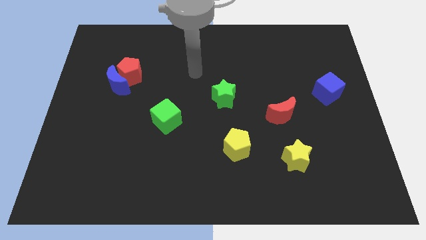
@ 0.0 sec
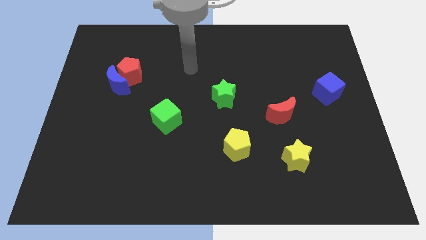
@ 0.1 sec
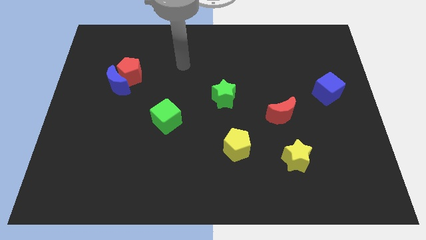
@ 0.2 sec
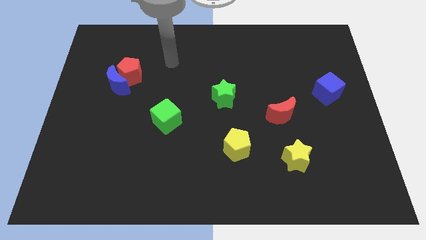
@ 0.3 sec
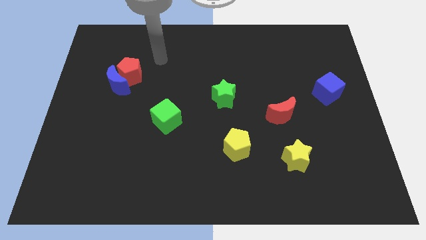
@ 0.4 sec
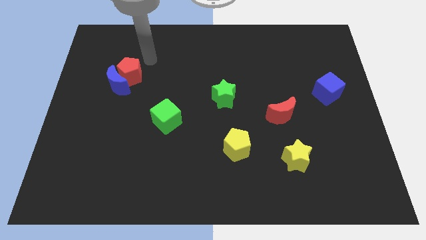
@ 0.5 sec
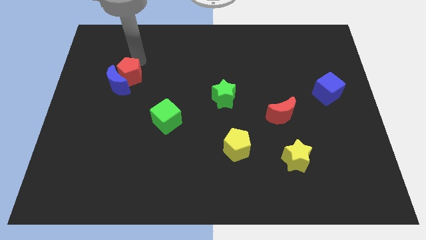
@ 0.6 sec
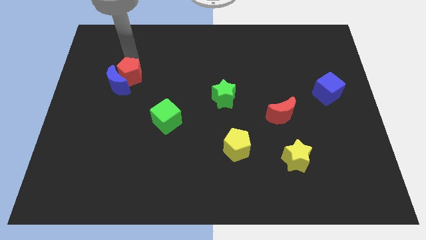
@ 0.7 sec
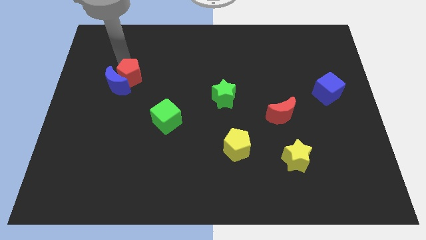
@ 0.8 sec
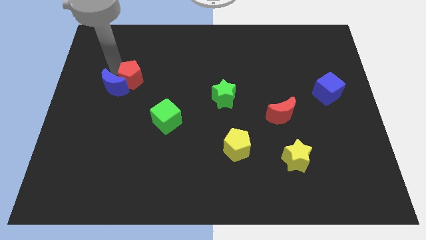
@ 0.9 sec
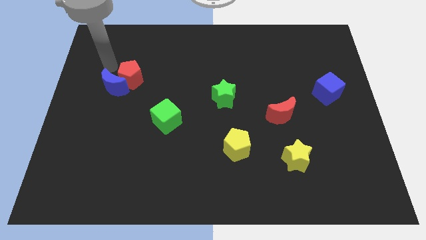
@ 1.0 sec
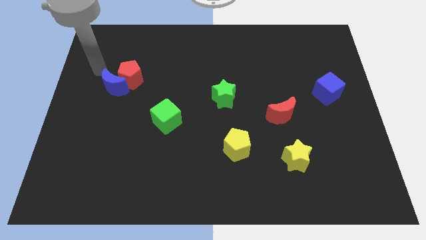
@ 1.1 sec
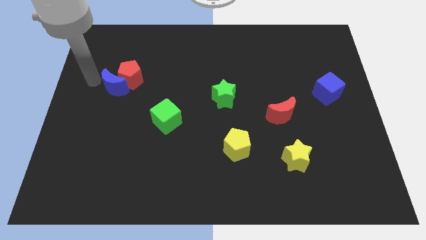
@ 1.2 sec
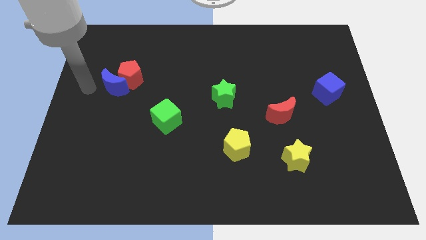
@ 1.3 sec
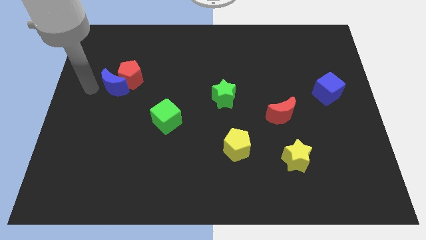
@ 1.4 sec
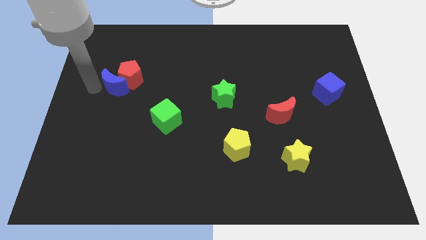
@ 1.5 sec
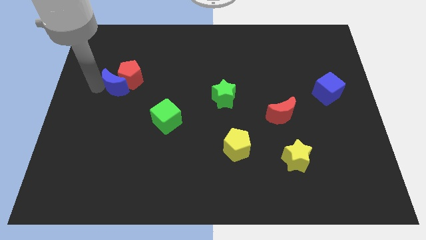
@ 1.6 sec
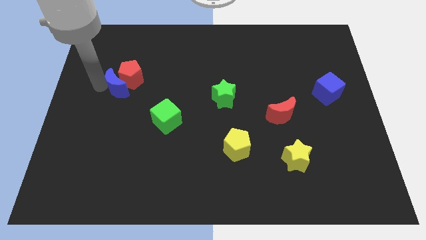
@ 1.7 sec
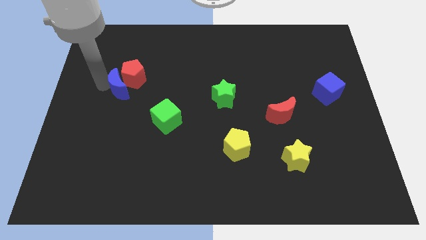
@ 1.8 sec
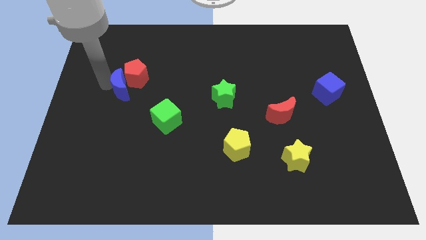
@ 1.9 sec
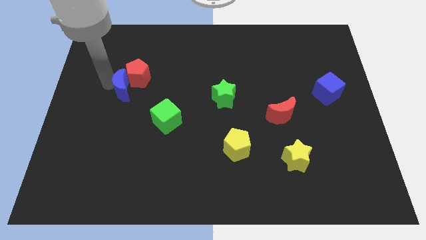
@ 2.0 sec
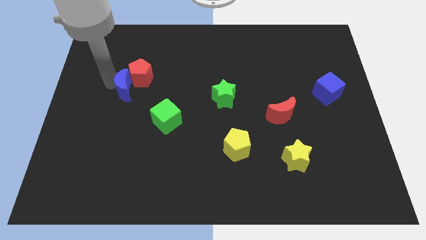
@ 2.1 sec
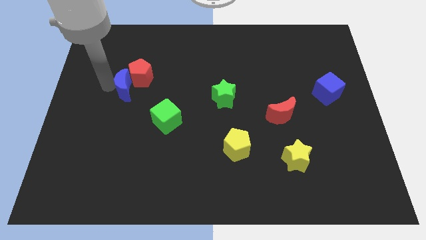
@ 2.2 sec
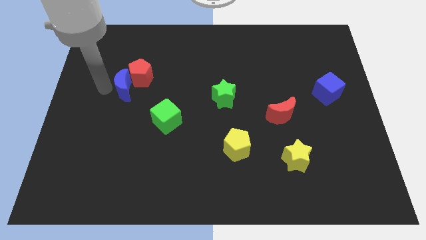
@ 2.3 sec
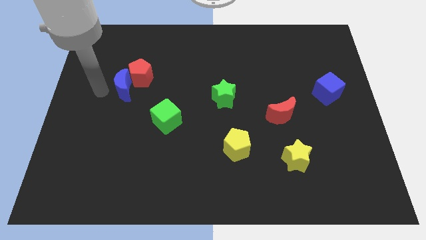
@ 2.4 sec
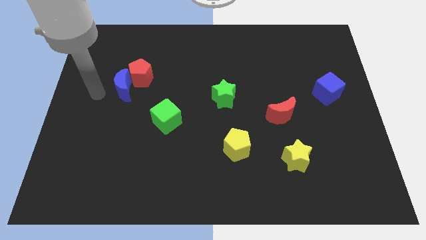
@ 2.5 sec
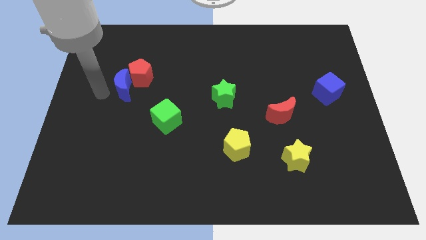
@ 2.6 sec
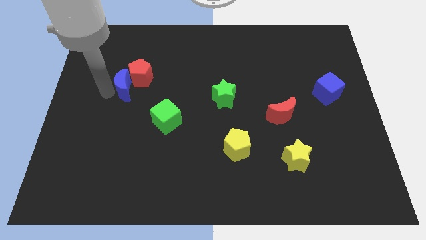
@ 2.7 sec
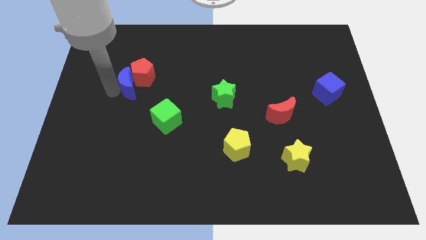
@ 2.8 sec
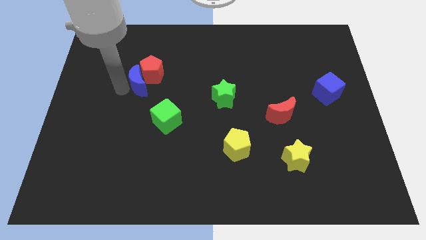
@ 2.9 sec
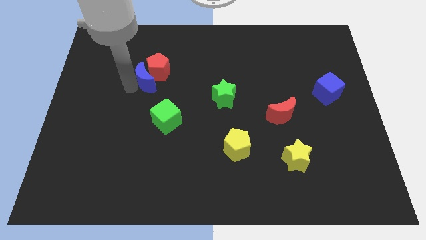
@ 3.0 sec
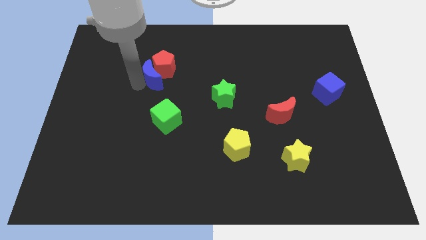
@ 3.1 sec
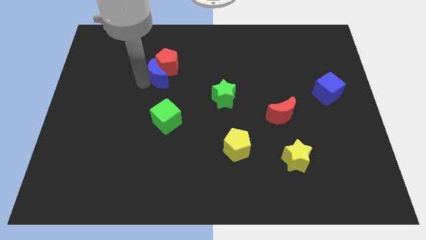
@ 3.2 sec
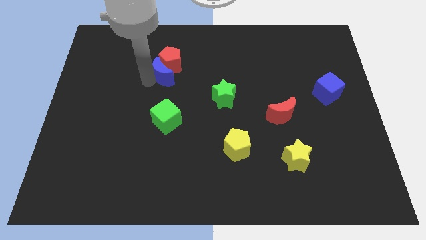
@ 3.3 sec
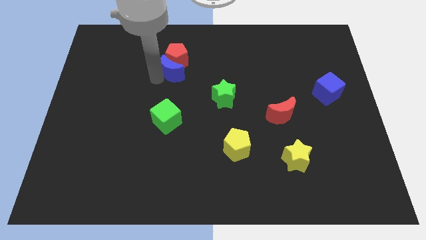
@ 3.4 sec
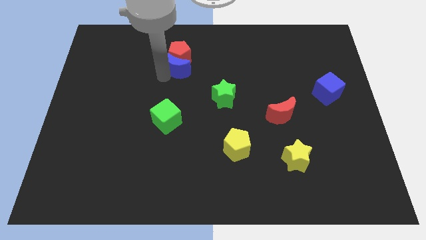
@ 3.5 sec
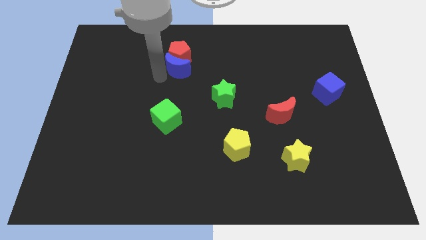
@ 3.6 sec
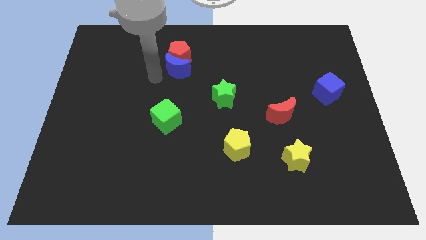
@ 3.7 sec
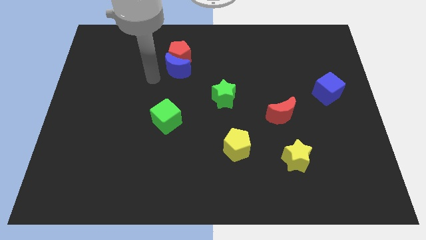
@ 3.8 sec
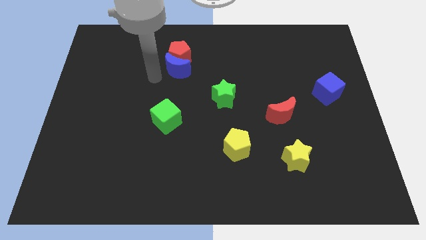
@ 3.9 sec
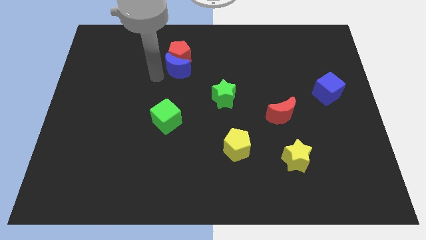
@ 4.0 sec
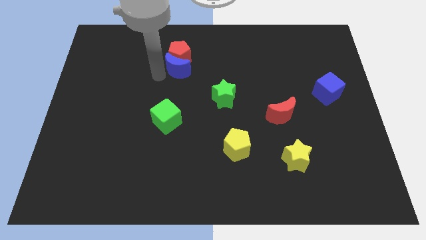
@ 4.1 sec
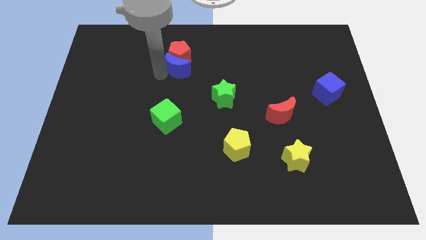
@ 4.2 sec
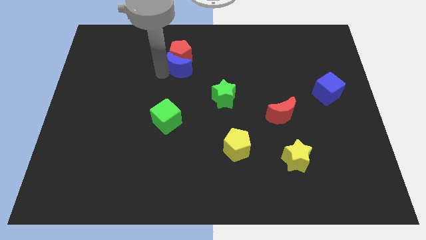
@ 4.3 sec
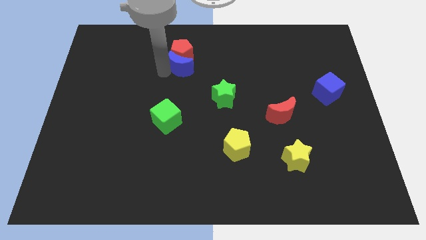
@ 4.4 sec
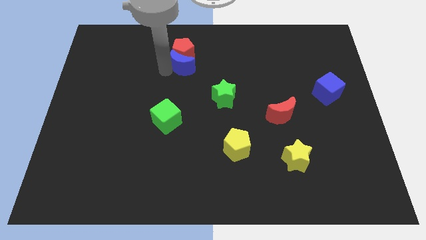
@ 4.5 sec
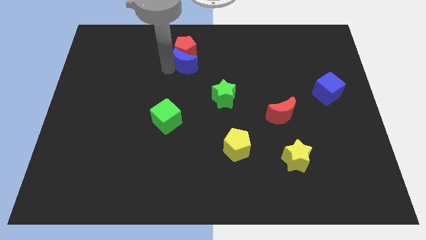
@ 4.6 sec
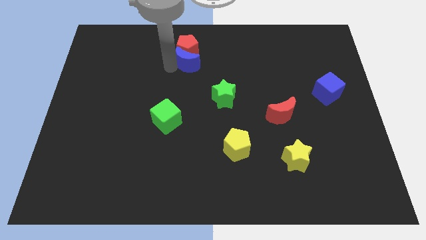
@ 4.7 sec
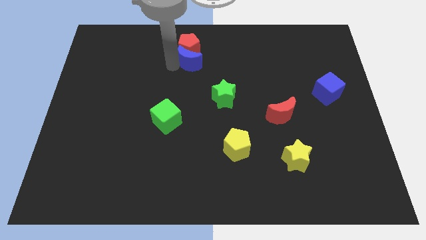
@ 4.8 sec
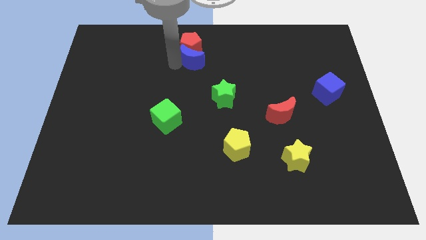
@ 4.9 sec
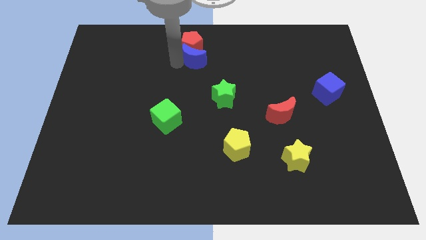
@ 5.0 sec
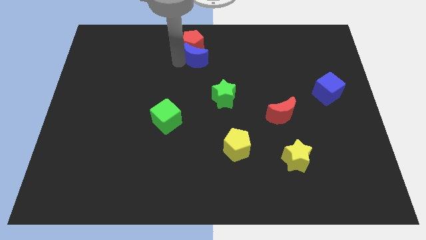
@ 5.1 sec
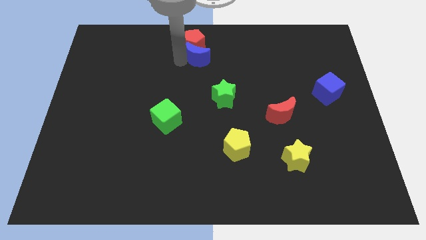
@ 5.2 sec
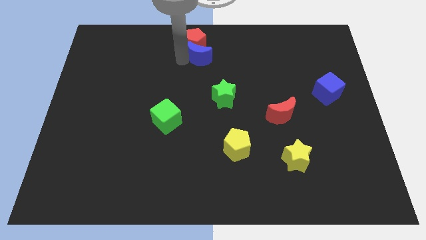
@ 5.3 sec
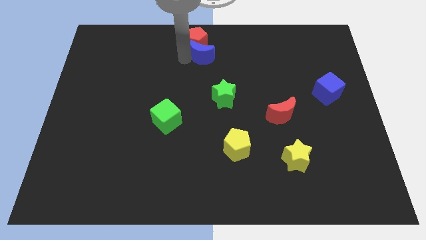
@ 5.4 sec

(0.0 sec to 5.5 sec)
slide the blue moon to the top
